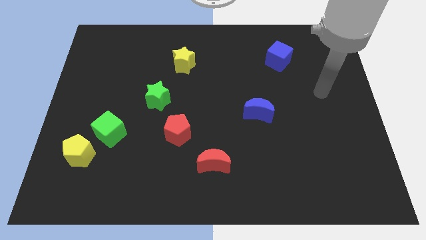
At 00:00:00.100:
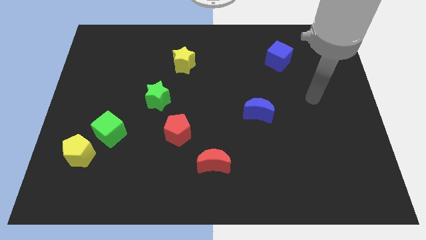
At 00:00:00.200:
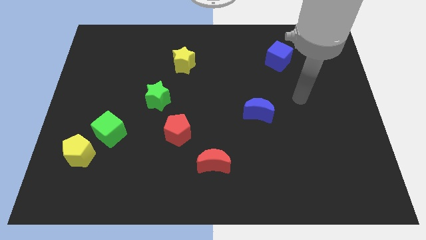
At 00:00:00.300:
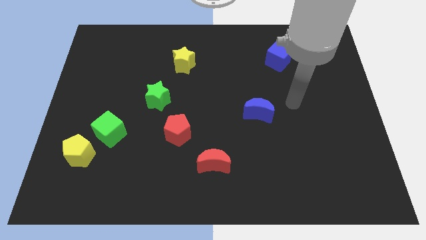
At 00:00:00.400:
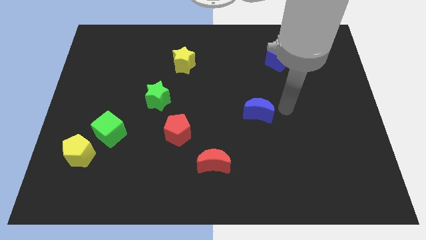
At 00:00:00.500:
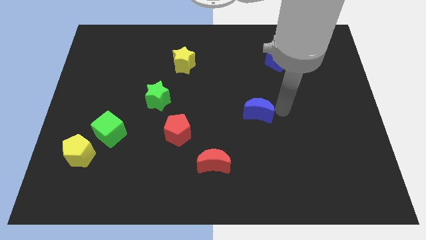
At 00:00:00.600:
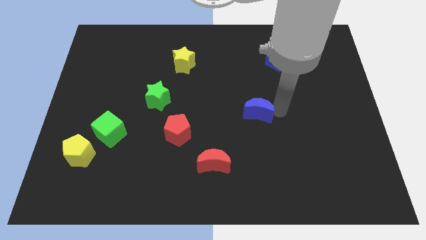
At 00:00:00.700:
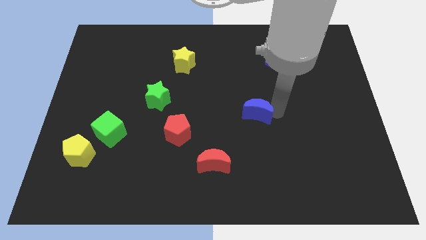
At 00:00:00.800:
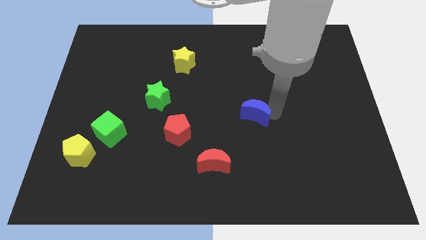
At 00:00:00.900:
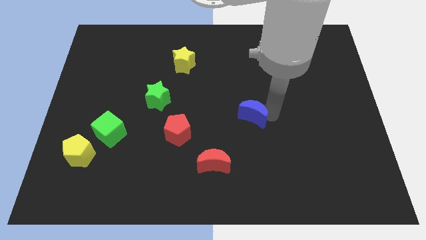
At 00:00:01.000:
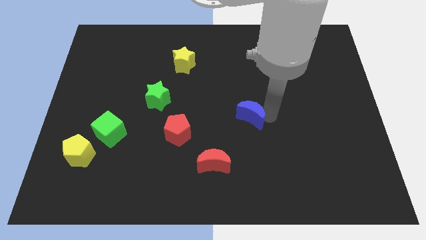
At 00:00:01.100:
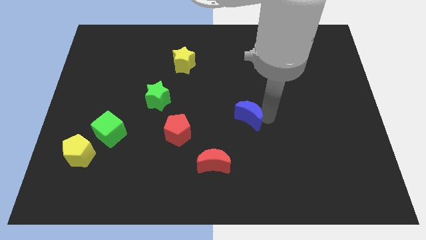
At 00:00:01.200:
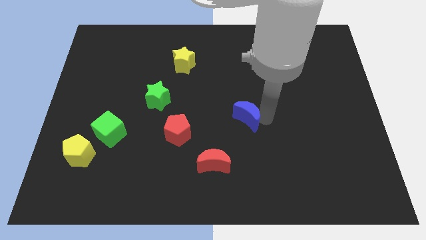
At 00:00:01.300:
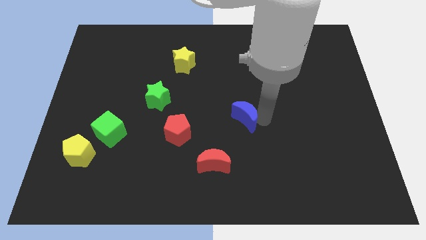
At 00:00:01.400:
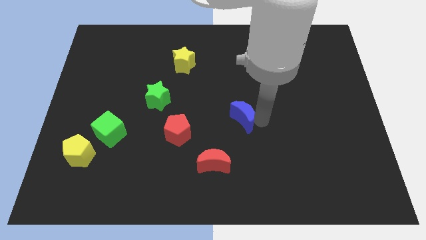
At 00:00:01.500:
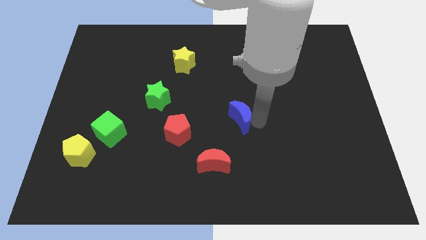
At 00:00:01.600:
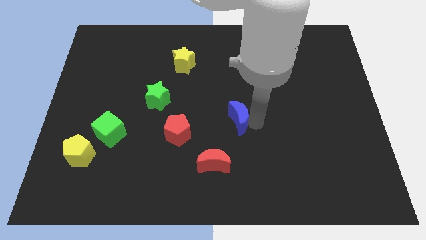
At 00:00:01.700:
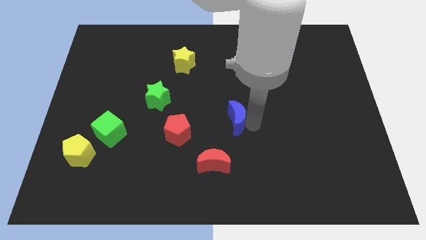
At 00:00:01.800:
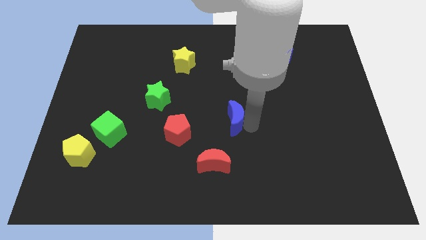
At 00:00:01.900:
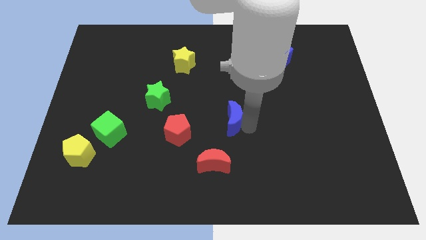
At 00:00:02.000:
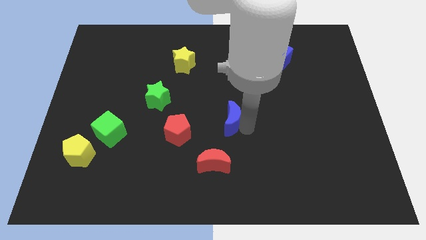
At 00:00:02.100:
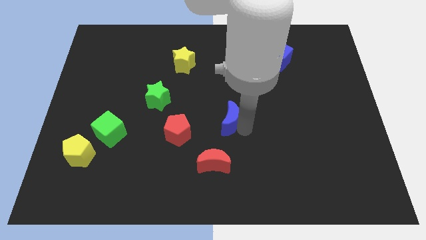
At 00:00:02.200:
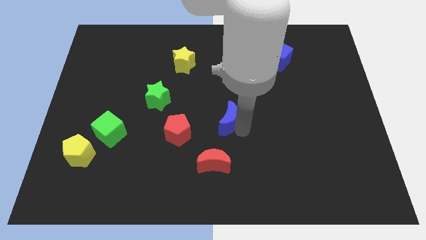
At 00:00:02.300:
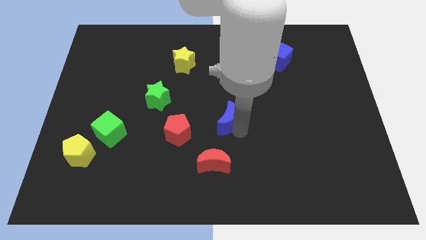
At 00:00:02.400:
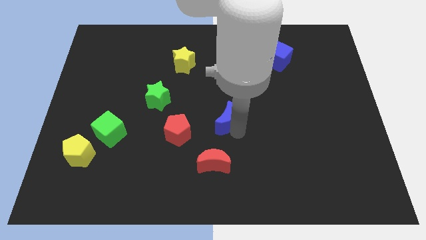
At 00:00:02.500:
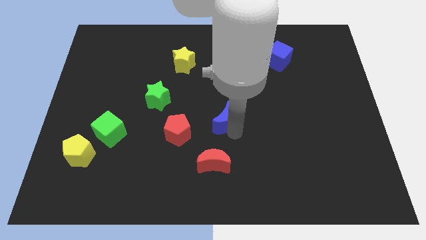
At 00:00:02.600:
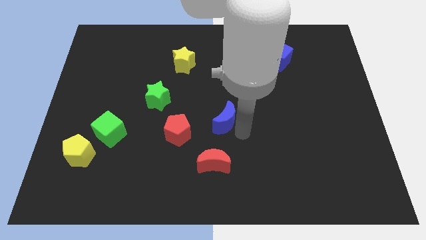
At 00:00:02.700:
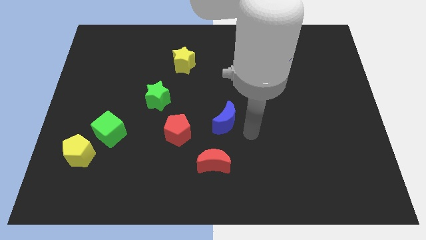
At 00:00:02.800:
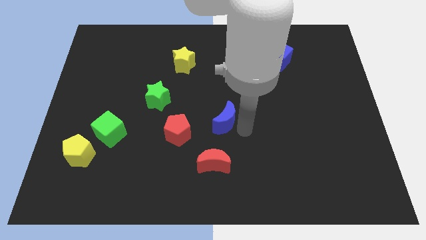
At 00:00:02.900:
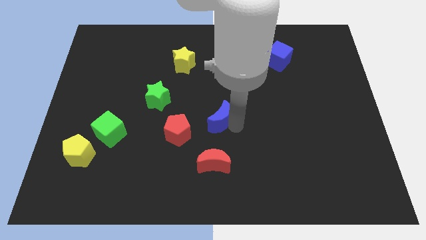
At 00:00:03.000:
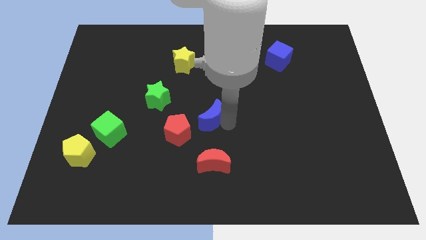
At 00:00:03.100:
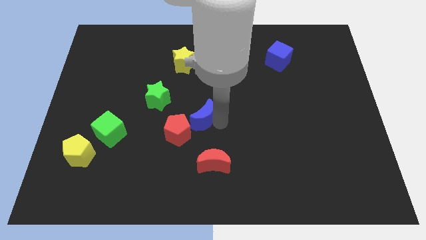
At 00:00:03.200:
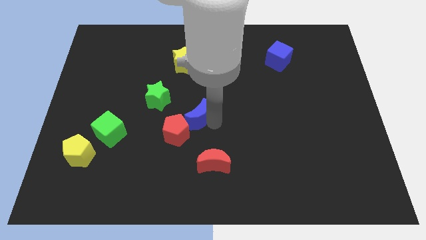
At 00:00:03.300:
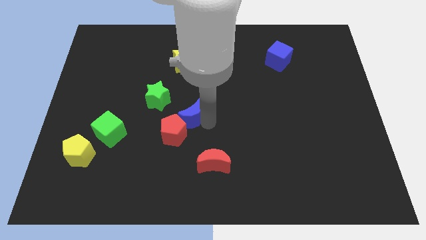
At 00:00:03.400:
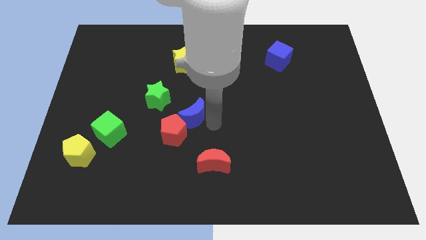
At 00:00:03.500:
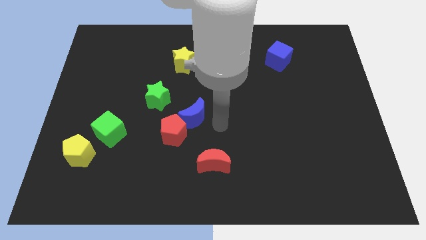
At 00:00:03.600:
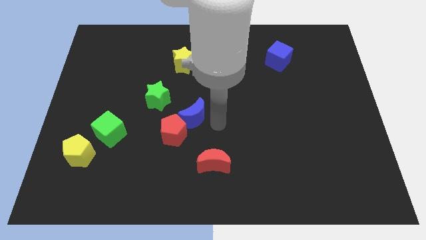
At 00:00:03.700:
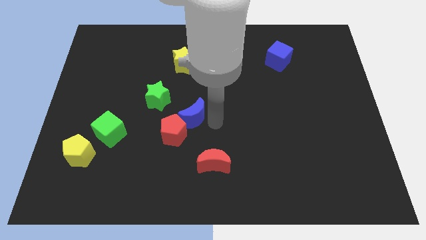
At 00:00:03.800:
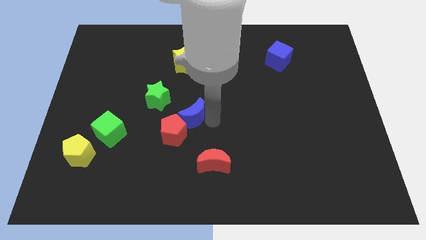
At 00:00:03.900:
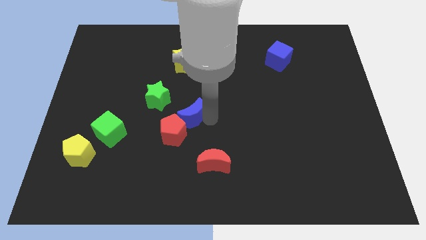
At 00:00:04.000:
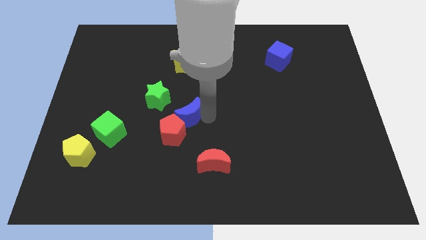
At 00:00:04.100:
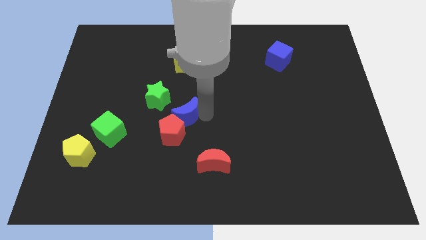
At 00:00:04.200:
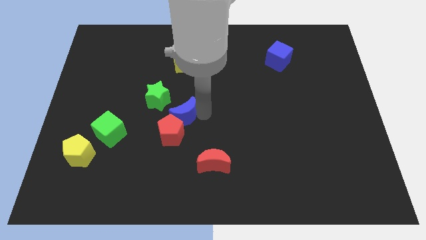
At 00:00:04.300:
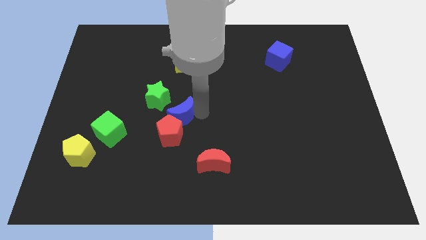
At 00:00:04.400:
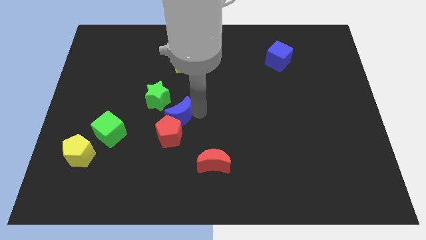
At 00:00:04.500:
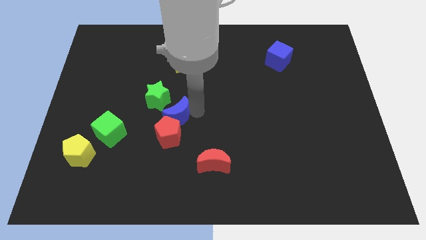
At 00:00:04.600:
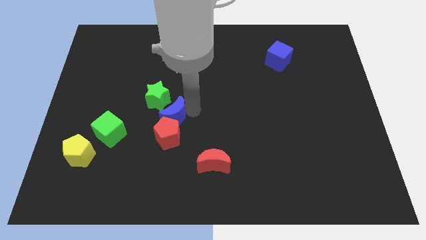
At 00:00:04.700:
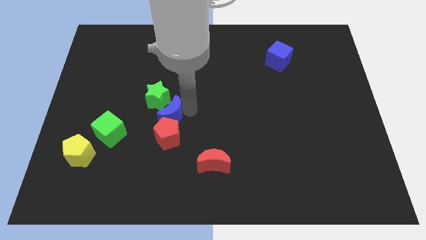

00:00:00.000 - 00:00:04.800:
move the blue moon to the left

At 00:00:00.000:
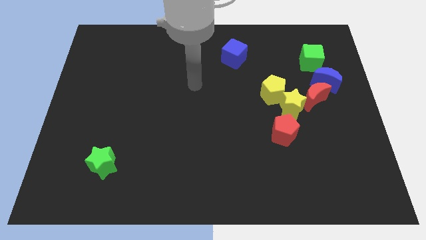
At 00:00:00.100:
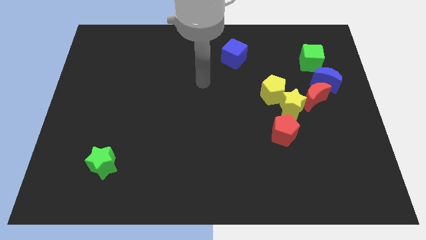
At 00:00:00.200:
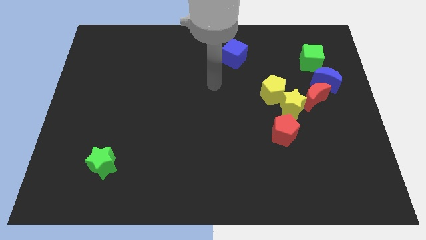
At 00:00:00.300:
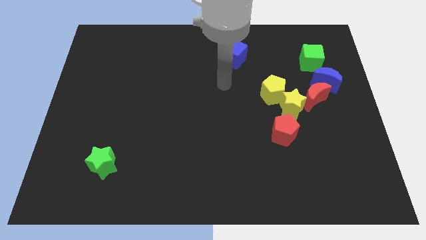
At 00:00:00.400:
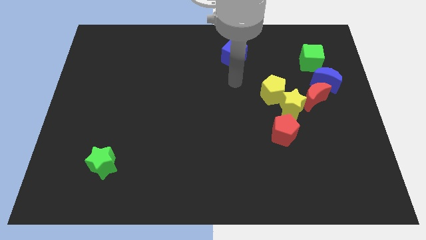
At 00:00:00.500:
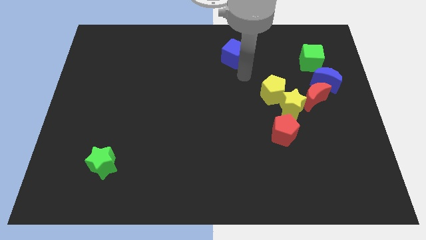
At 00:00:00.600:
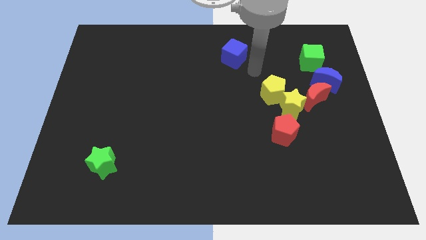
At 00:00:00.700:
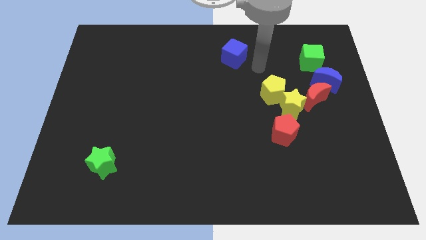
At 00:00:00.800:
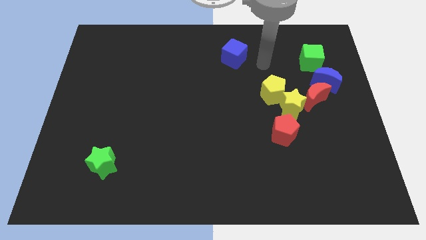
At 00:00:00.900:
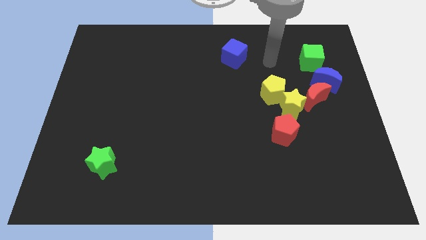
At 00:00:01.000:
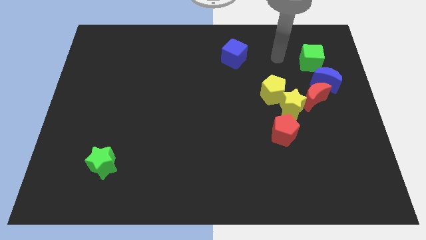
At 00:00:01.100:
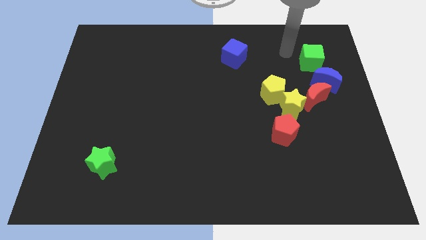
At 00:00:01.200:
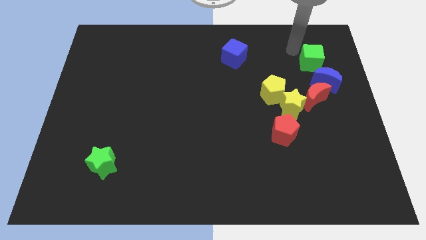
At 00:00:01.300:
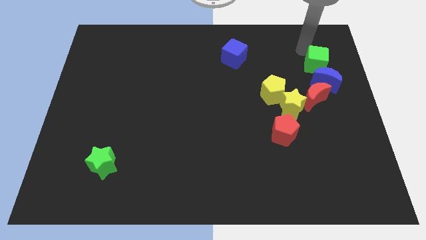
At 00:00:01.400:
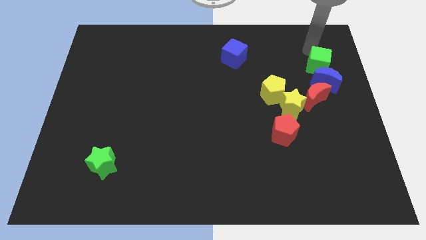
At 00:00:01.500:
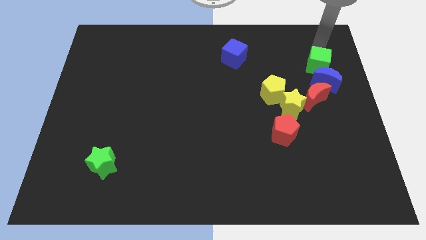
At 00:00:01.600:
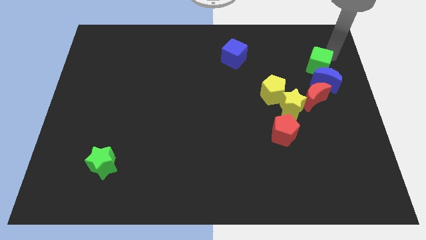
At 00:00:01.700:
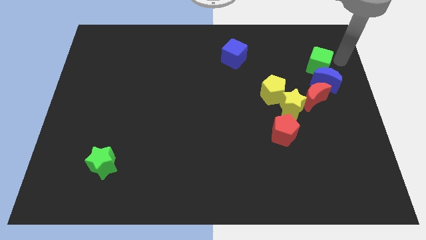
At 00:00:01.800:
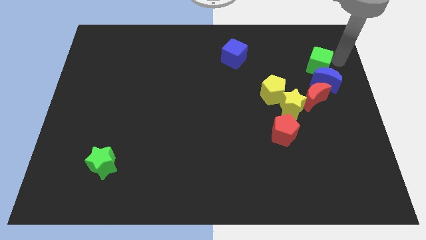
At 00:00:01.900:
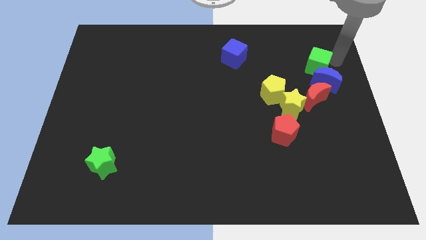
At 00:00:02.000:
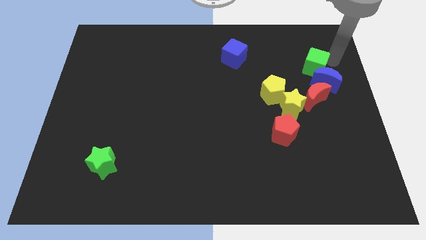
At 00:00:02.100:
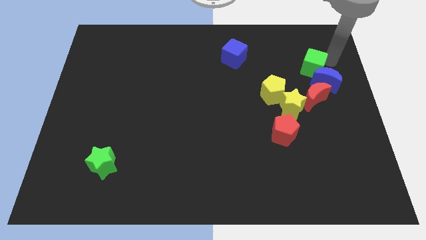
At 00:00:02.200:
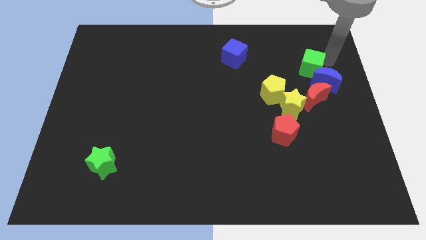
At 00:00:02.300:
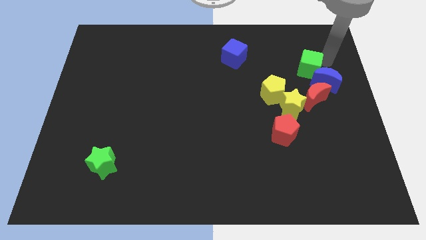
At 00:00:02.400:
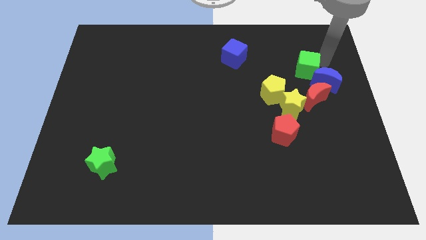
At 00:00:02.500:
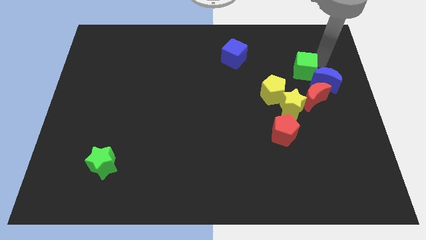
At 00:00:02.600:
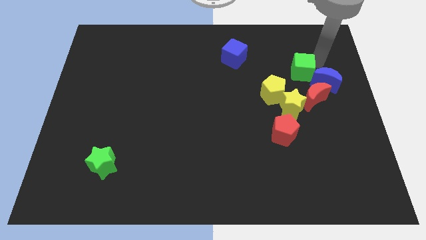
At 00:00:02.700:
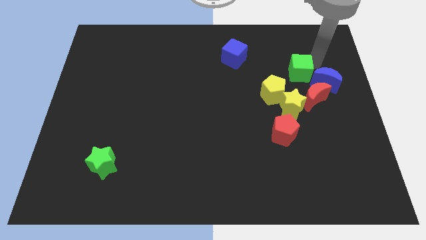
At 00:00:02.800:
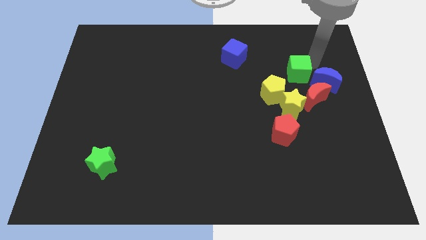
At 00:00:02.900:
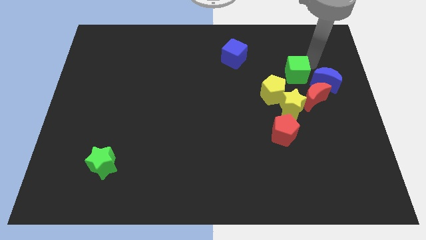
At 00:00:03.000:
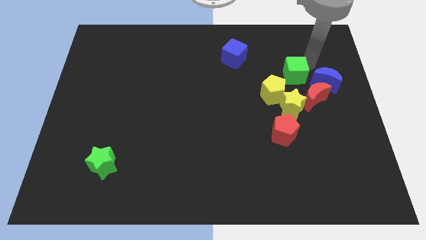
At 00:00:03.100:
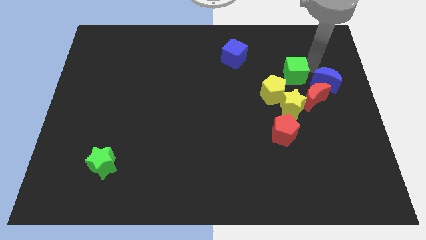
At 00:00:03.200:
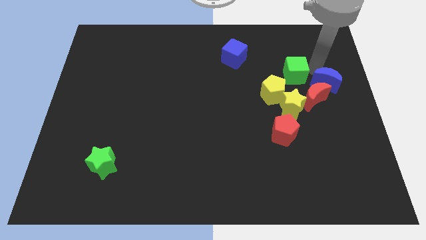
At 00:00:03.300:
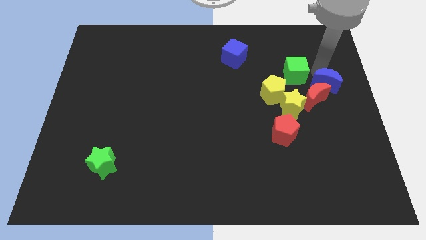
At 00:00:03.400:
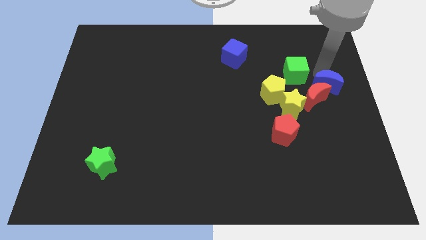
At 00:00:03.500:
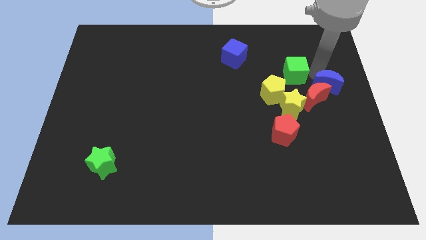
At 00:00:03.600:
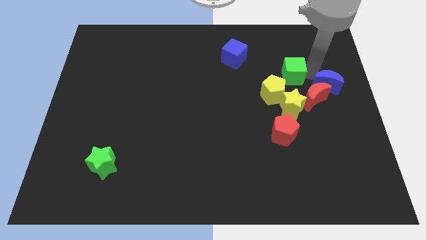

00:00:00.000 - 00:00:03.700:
slightly slide the green cube down and to the left diagonally
